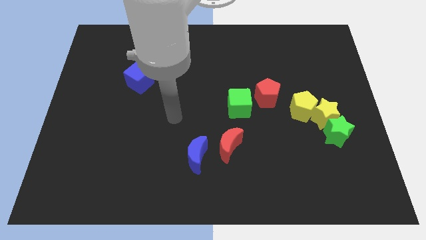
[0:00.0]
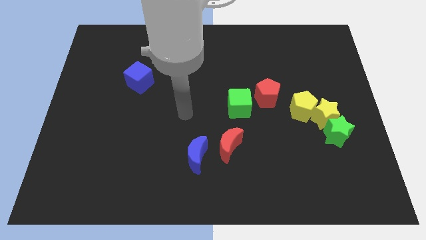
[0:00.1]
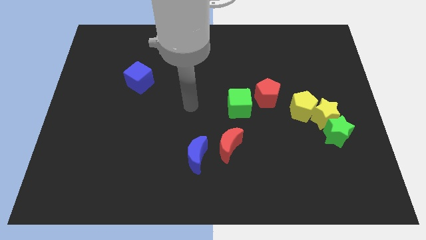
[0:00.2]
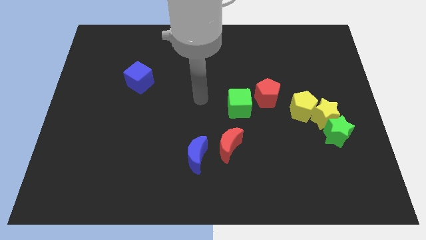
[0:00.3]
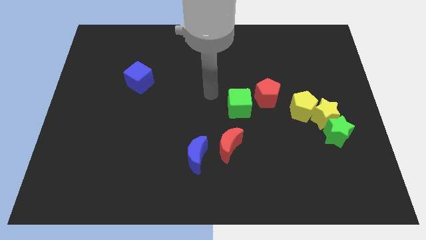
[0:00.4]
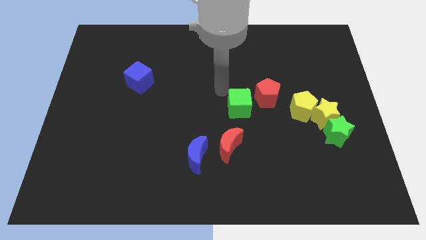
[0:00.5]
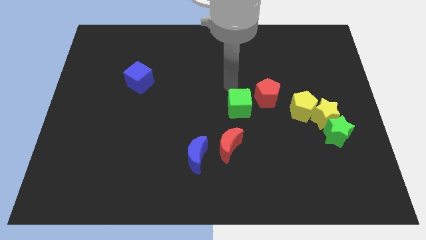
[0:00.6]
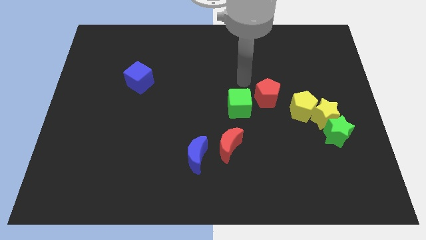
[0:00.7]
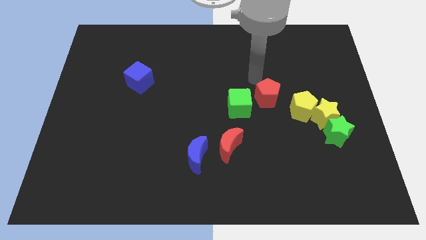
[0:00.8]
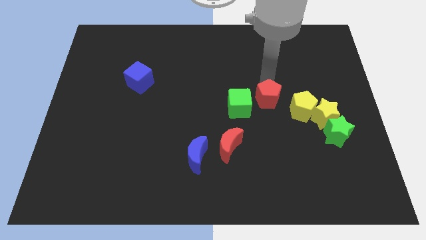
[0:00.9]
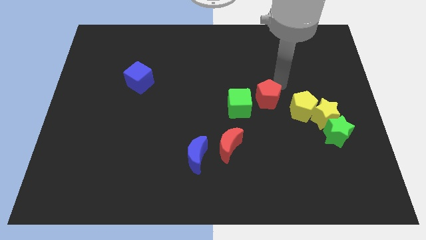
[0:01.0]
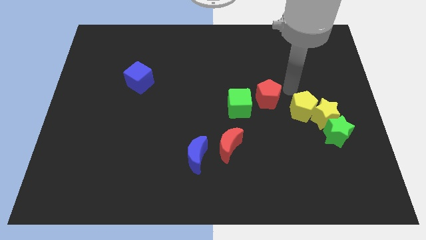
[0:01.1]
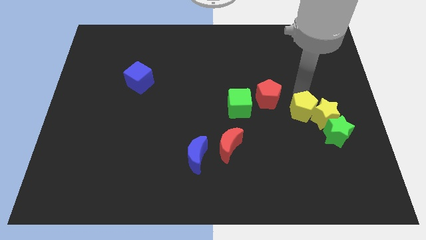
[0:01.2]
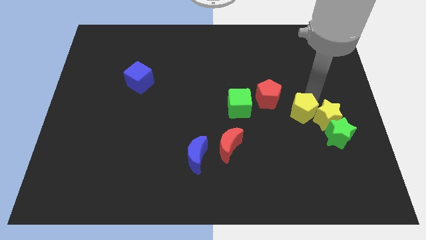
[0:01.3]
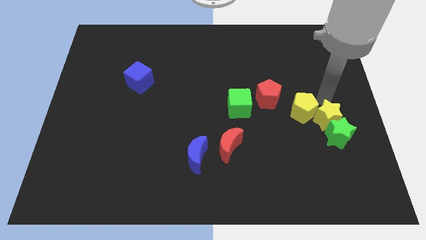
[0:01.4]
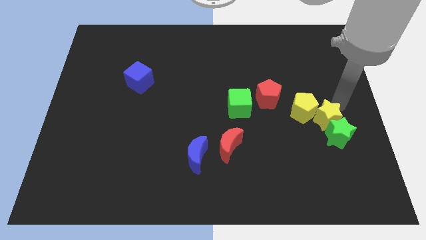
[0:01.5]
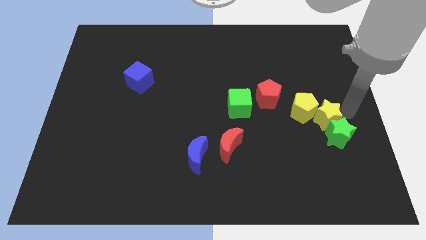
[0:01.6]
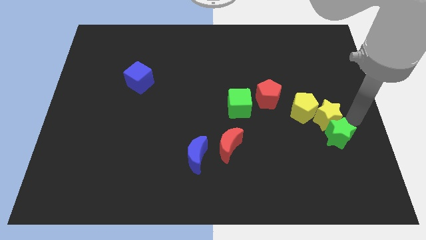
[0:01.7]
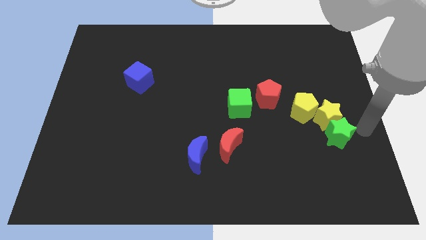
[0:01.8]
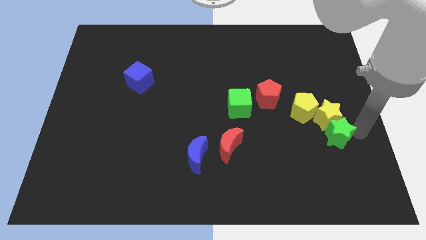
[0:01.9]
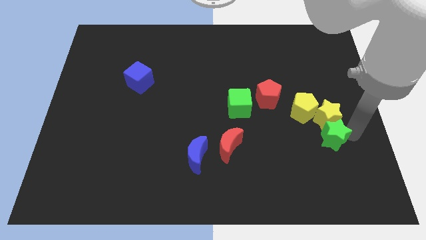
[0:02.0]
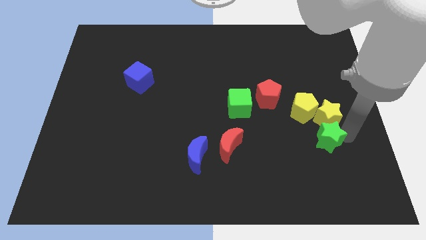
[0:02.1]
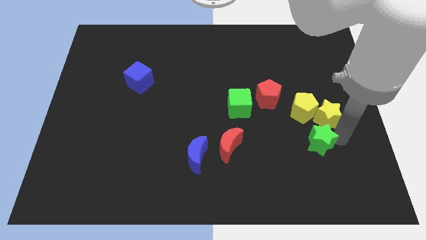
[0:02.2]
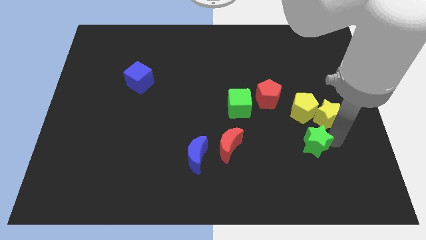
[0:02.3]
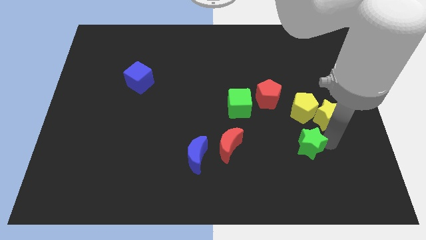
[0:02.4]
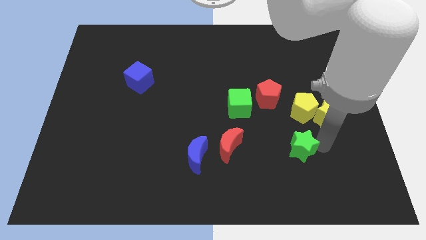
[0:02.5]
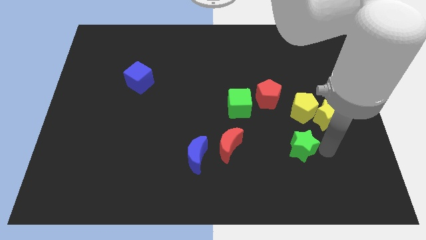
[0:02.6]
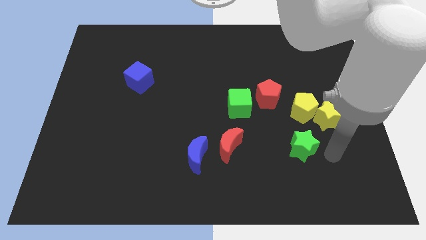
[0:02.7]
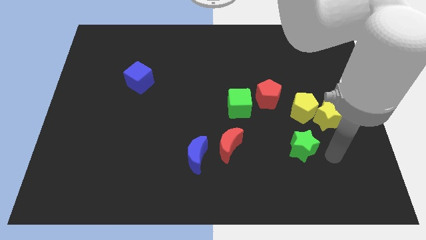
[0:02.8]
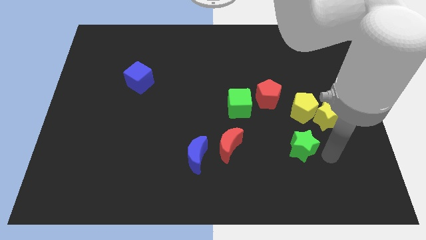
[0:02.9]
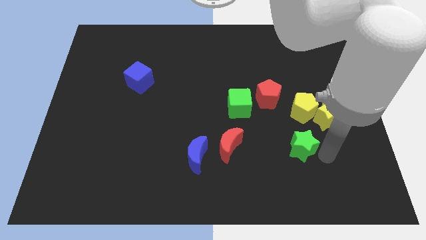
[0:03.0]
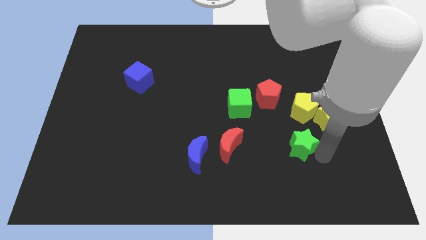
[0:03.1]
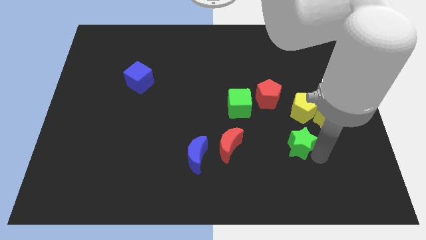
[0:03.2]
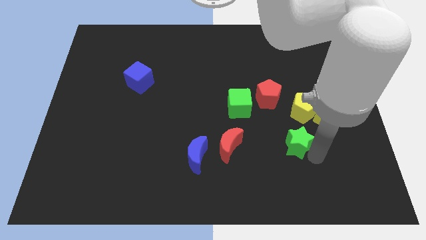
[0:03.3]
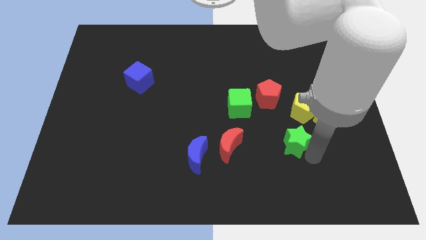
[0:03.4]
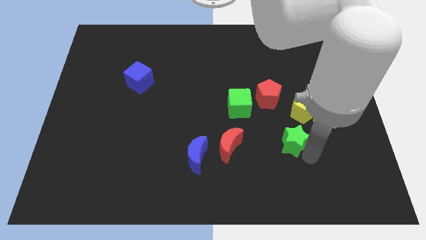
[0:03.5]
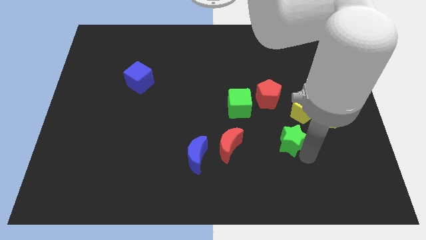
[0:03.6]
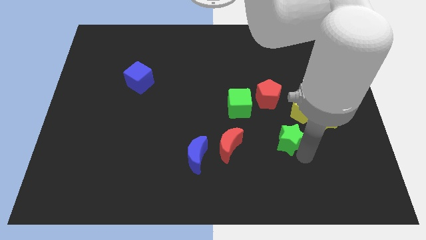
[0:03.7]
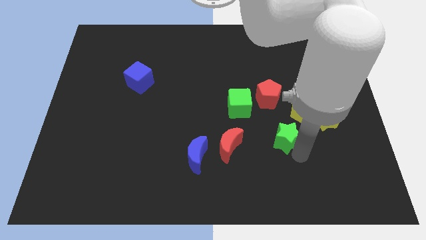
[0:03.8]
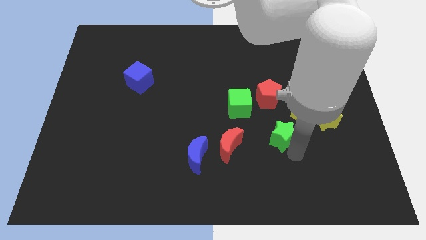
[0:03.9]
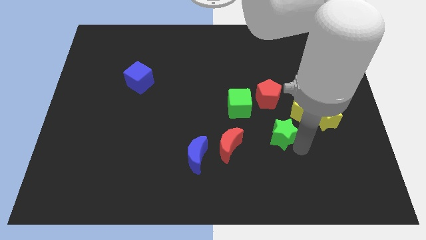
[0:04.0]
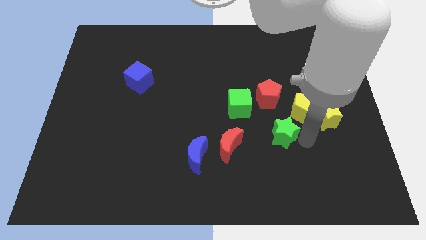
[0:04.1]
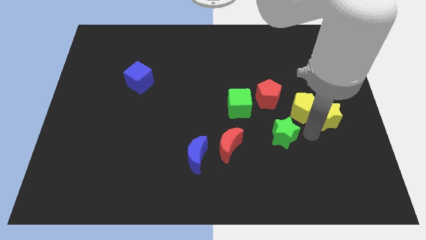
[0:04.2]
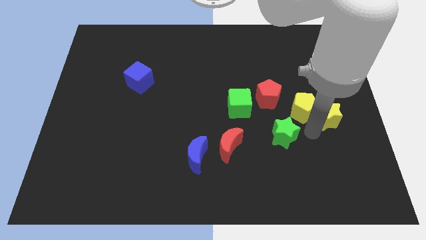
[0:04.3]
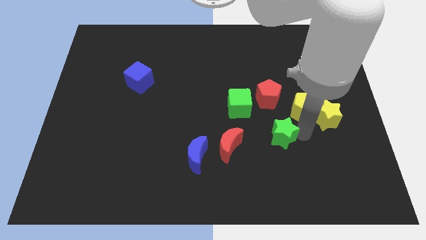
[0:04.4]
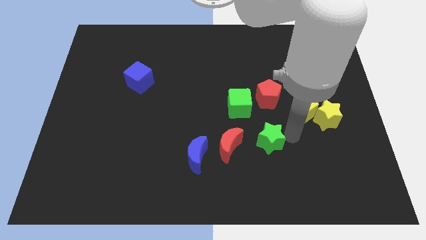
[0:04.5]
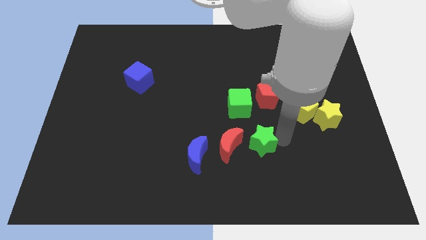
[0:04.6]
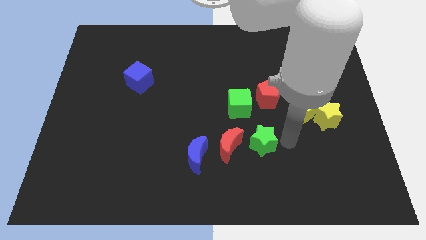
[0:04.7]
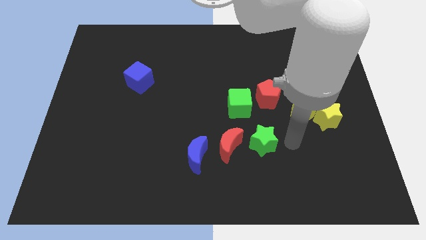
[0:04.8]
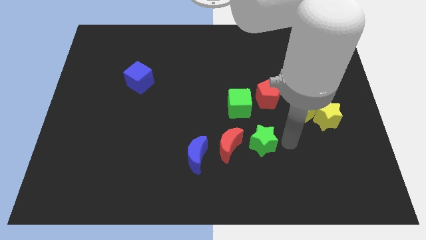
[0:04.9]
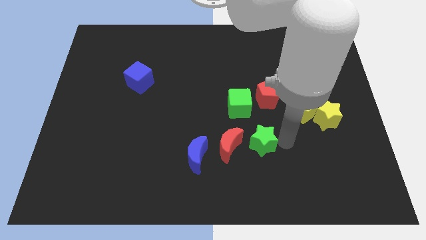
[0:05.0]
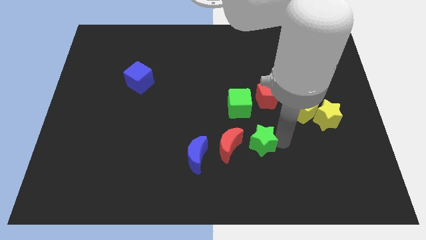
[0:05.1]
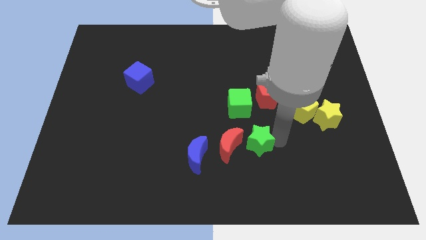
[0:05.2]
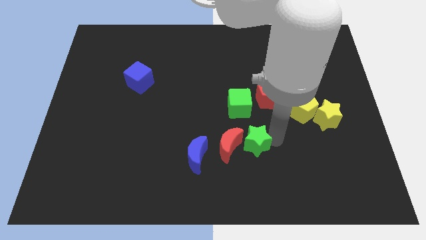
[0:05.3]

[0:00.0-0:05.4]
put the green star next to the red moon

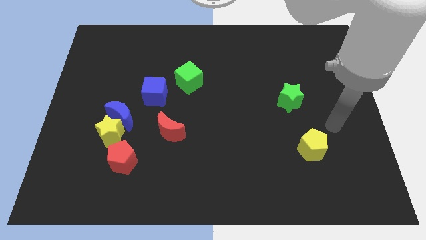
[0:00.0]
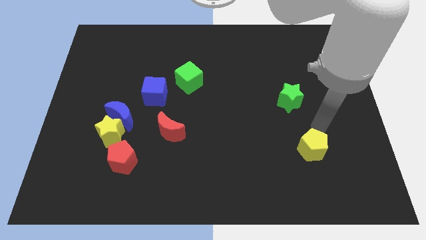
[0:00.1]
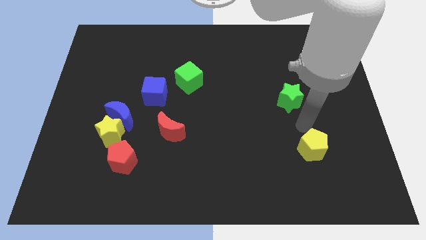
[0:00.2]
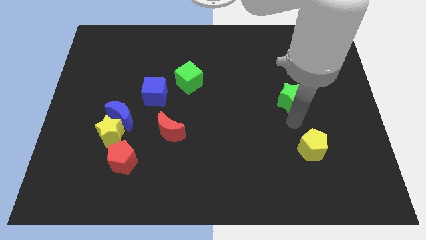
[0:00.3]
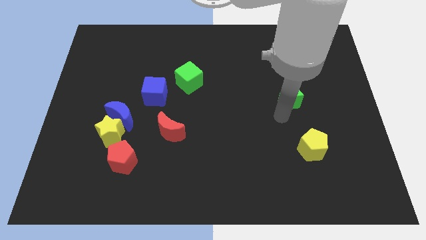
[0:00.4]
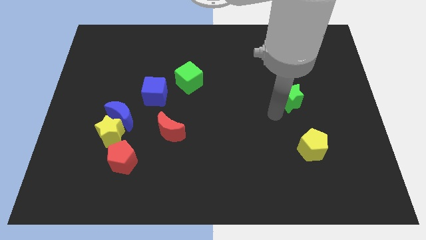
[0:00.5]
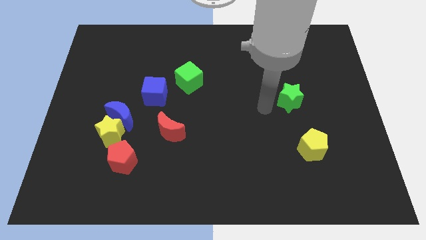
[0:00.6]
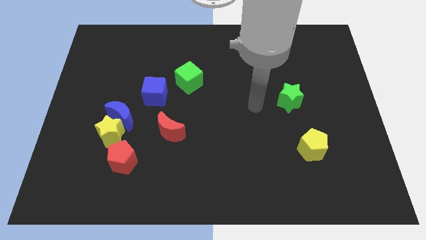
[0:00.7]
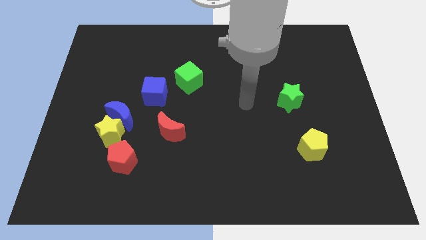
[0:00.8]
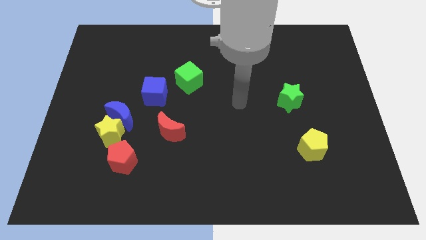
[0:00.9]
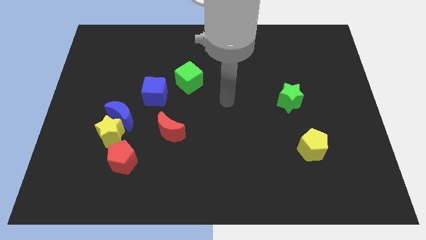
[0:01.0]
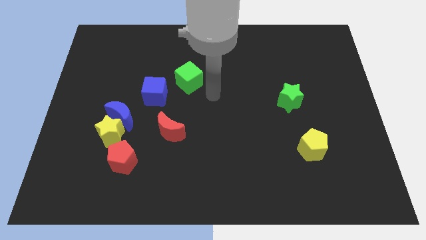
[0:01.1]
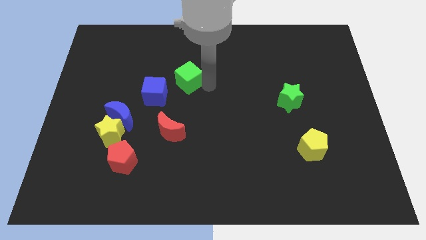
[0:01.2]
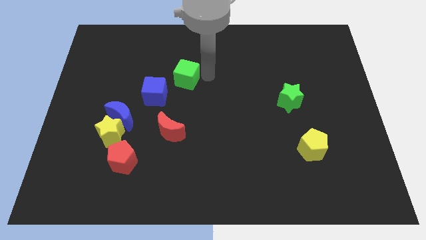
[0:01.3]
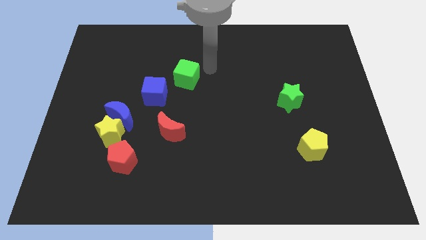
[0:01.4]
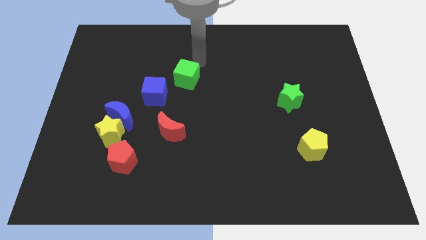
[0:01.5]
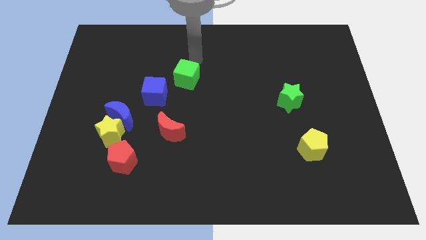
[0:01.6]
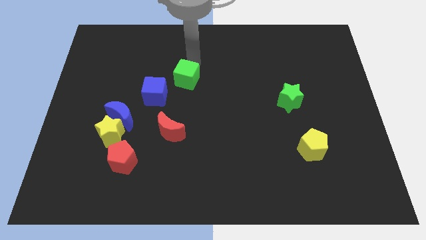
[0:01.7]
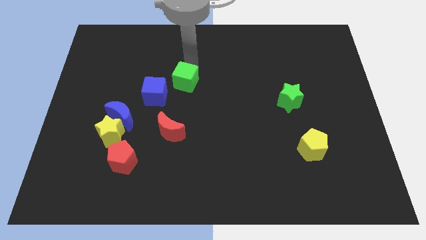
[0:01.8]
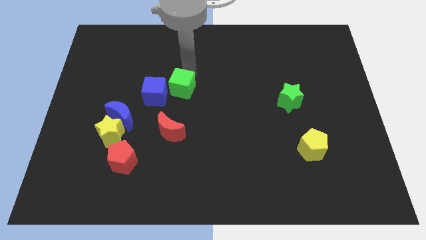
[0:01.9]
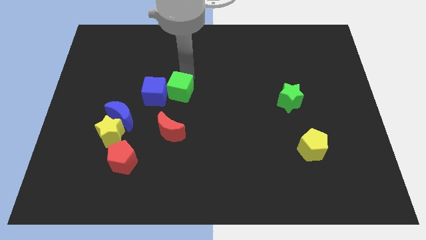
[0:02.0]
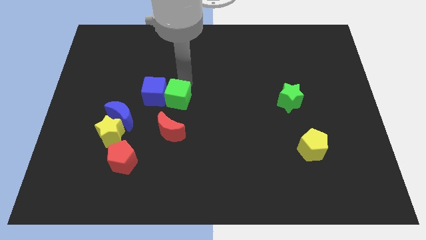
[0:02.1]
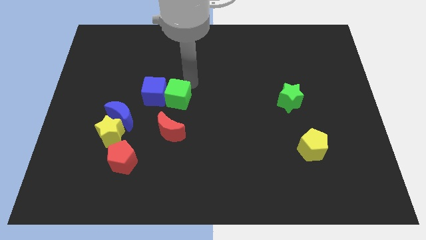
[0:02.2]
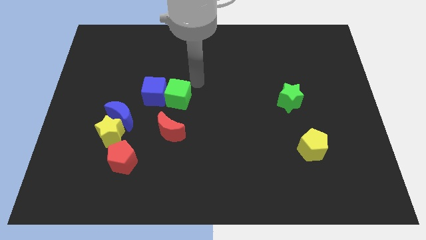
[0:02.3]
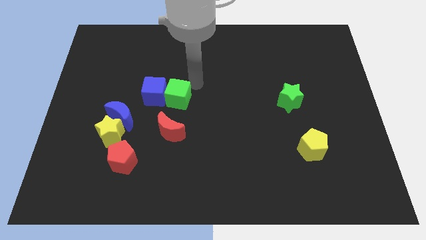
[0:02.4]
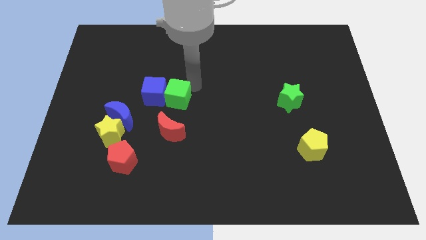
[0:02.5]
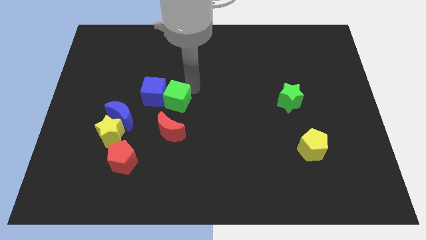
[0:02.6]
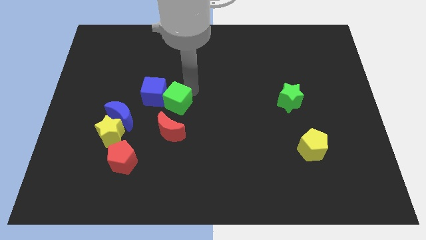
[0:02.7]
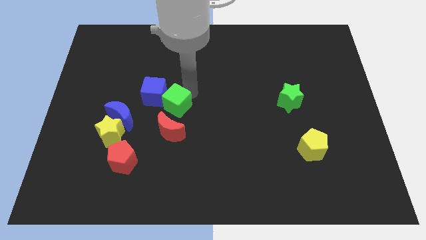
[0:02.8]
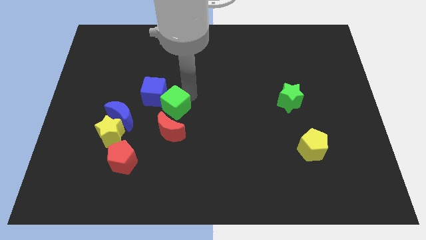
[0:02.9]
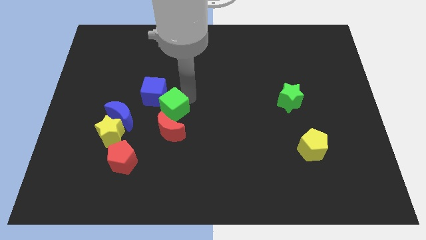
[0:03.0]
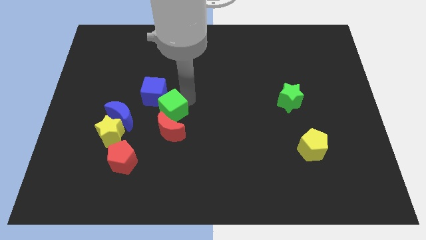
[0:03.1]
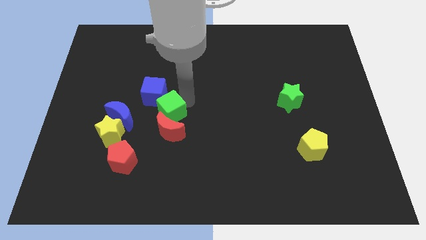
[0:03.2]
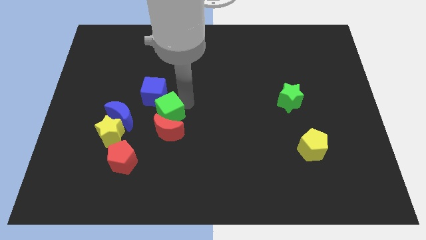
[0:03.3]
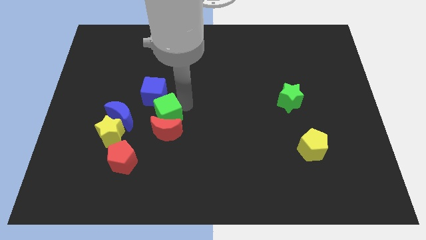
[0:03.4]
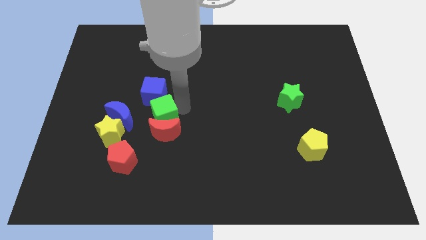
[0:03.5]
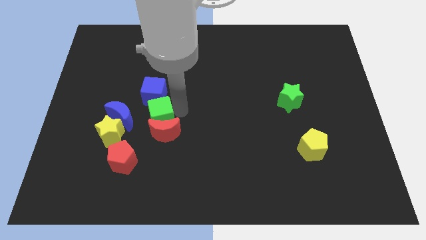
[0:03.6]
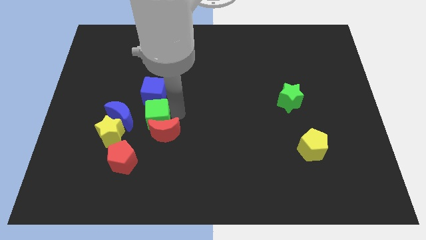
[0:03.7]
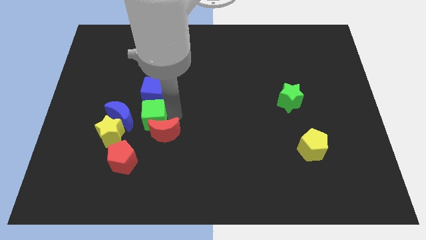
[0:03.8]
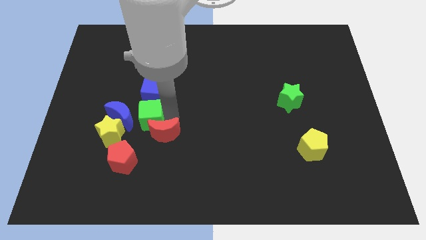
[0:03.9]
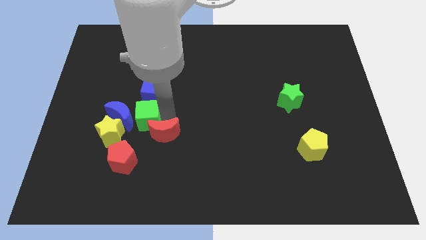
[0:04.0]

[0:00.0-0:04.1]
move the green cube towards the blue moon
